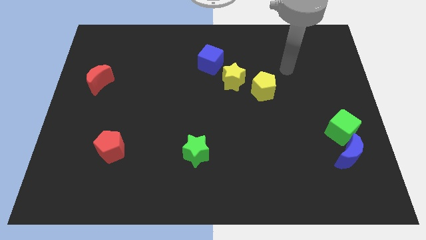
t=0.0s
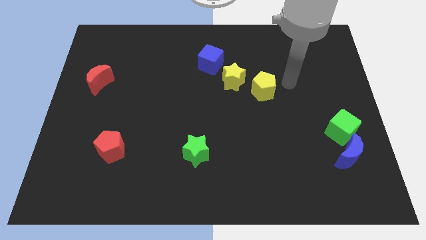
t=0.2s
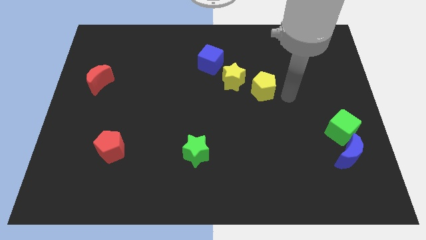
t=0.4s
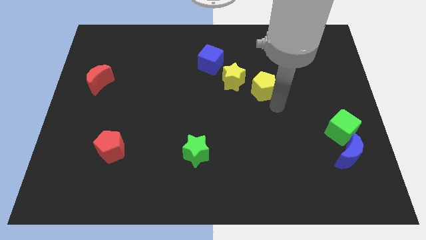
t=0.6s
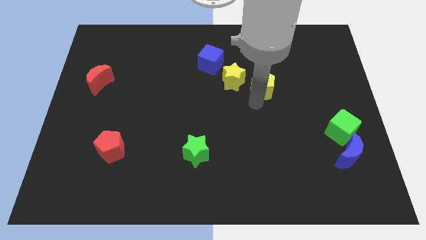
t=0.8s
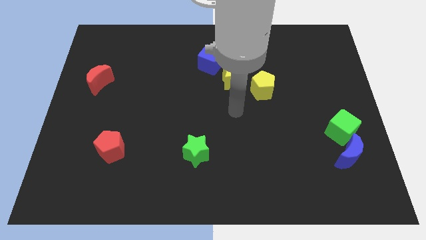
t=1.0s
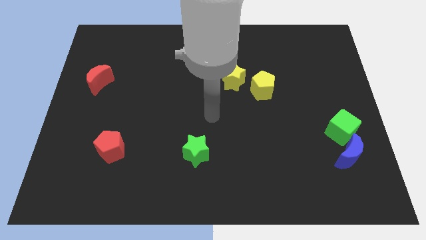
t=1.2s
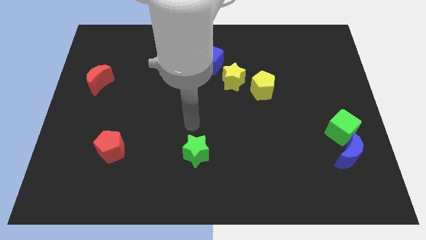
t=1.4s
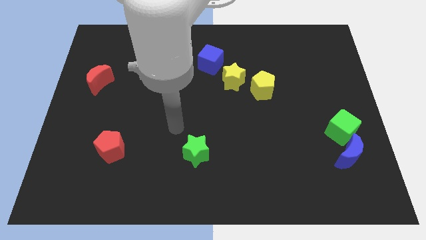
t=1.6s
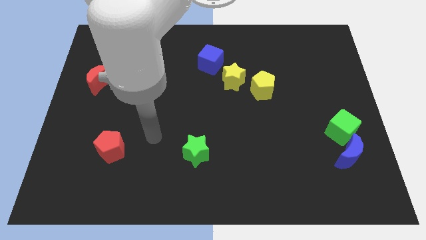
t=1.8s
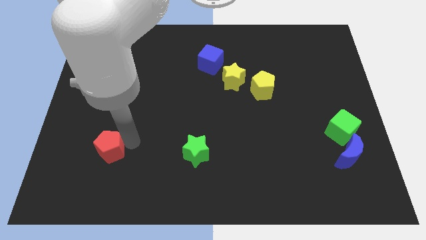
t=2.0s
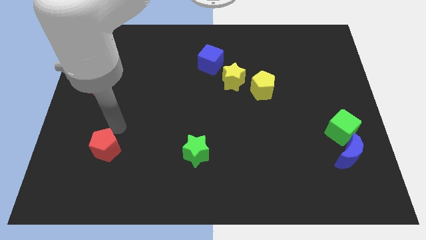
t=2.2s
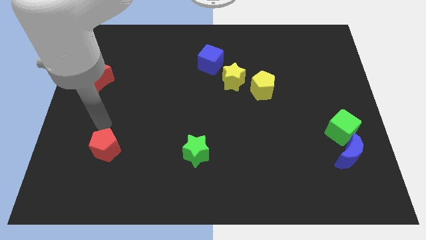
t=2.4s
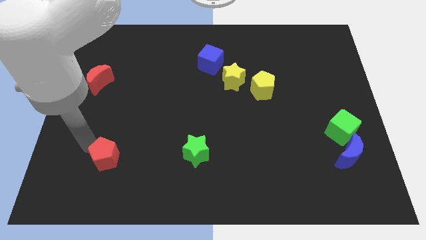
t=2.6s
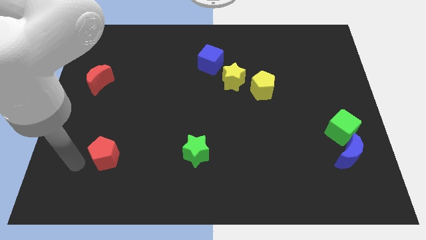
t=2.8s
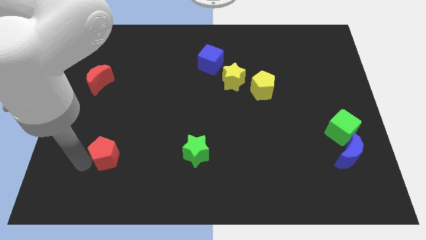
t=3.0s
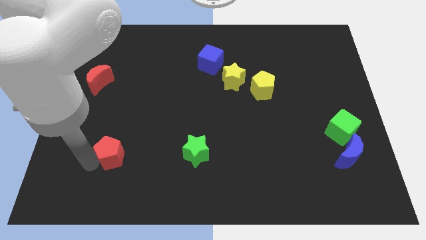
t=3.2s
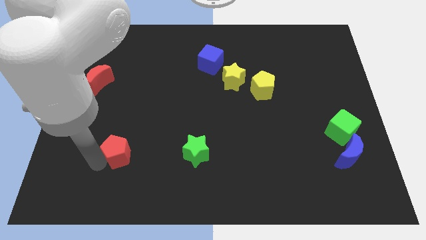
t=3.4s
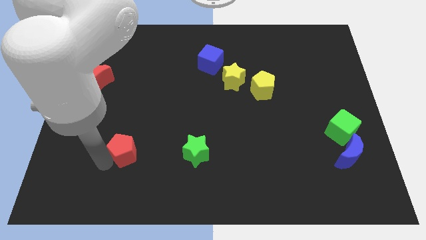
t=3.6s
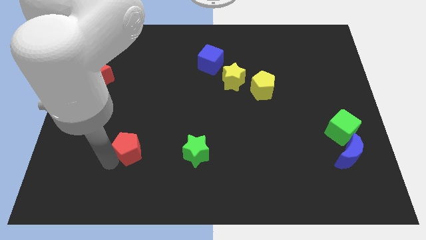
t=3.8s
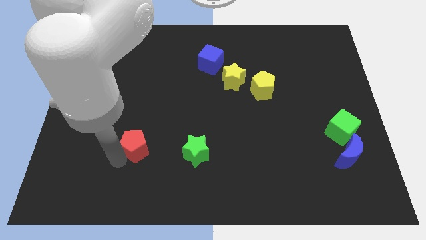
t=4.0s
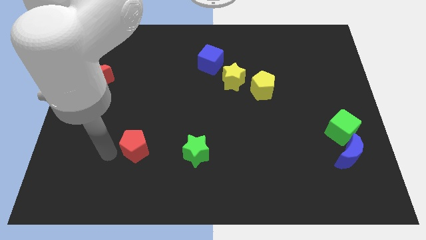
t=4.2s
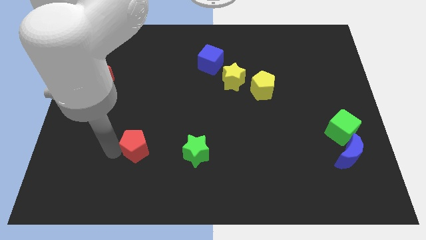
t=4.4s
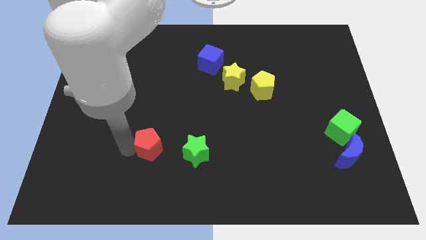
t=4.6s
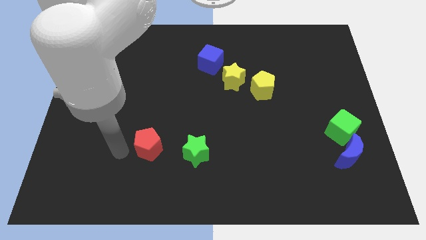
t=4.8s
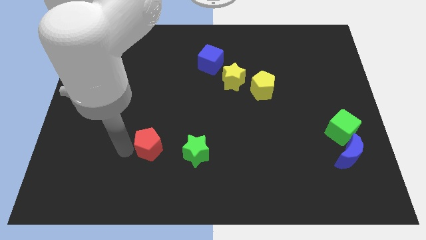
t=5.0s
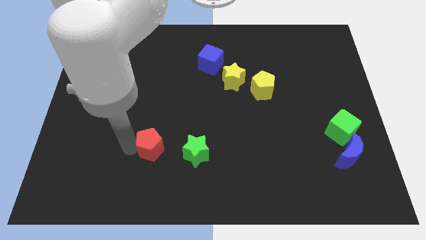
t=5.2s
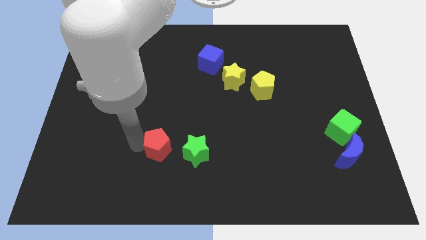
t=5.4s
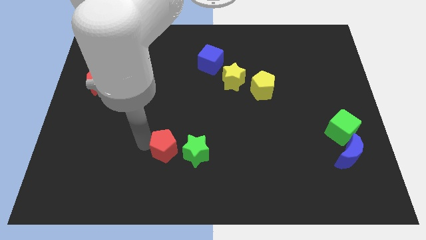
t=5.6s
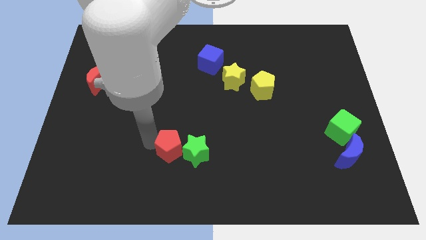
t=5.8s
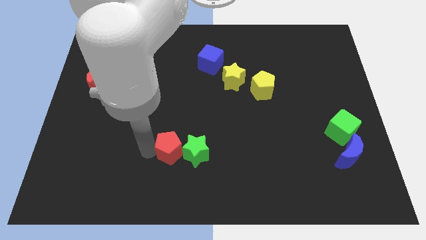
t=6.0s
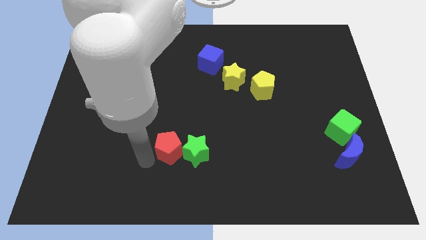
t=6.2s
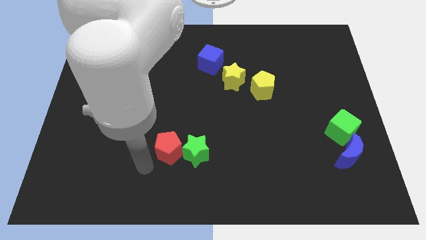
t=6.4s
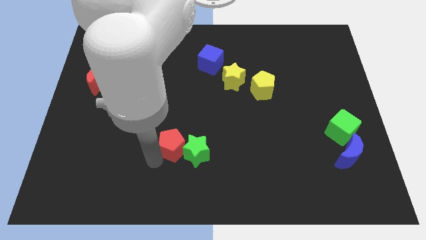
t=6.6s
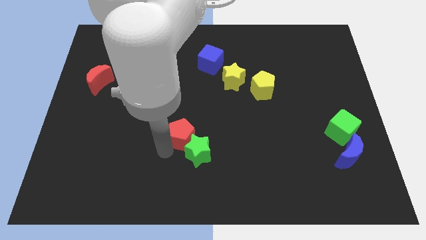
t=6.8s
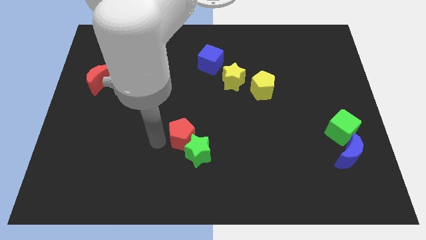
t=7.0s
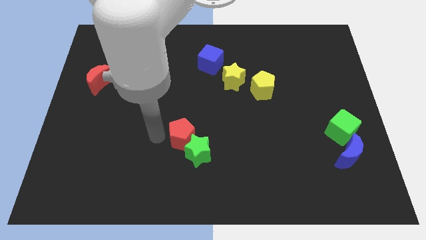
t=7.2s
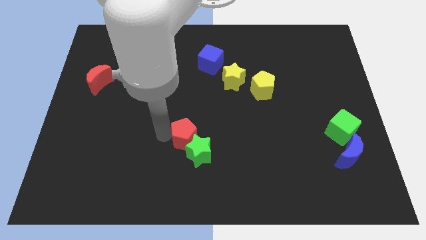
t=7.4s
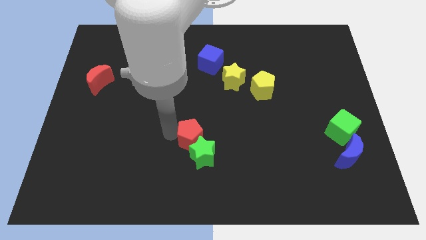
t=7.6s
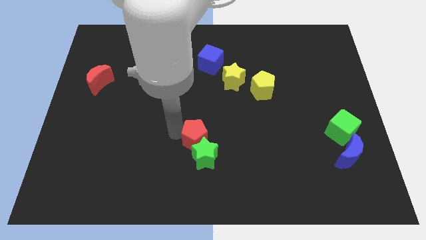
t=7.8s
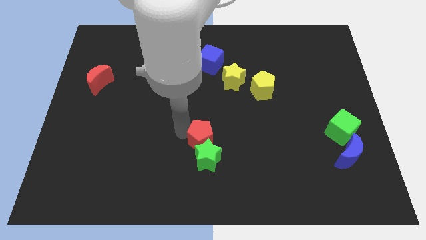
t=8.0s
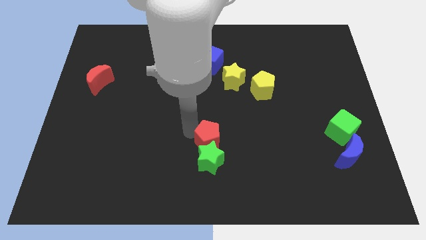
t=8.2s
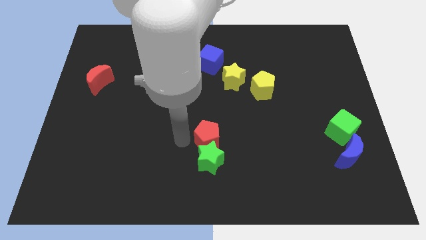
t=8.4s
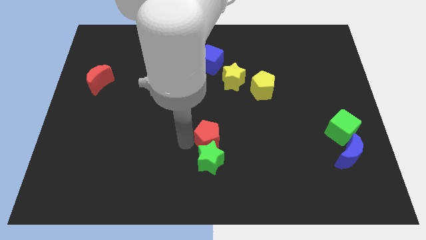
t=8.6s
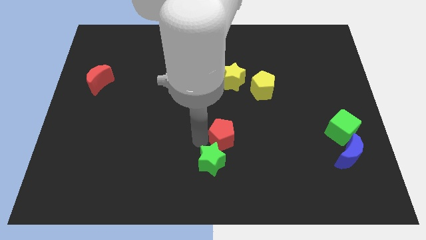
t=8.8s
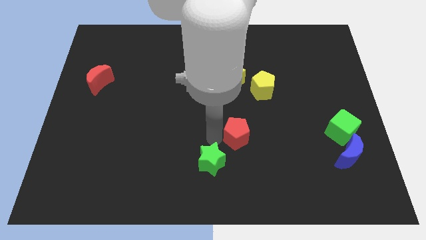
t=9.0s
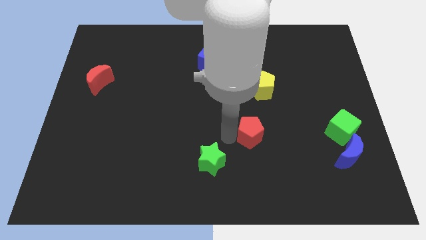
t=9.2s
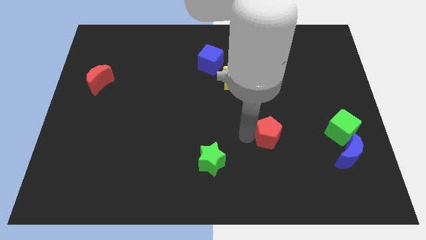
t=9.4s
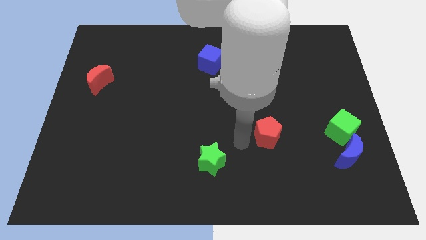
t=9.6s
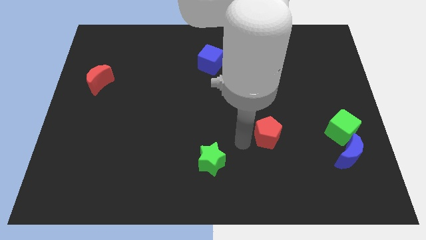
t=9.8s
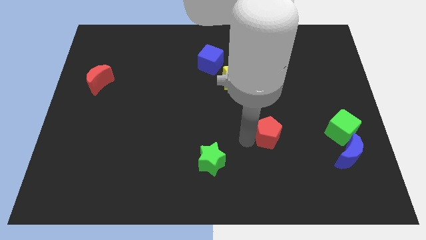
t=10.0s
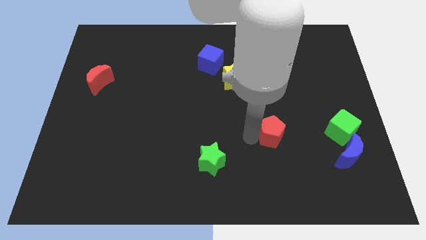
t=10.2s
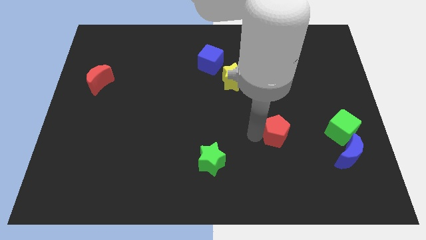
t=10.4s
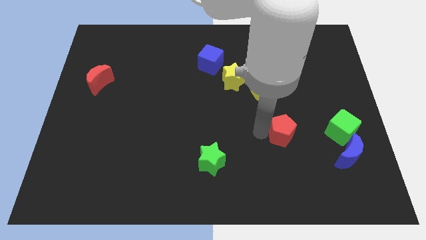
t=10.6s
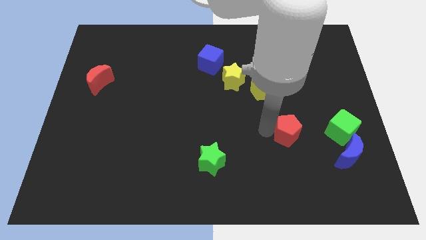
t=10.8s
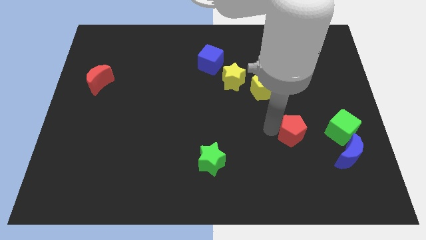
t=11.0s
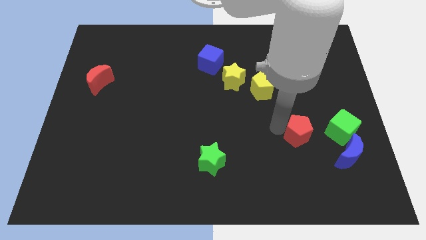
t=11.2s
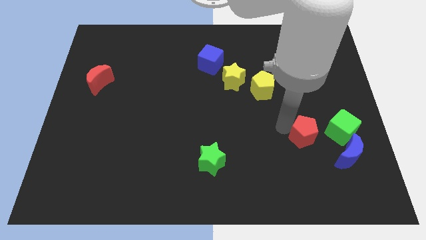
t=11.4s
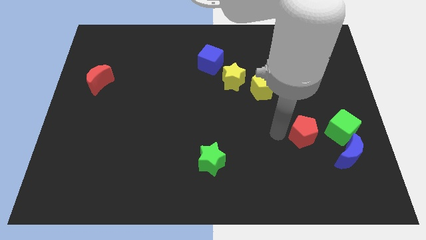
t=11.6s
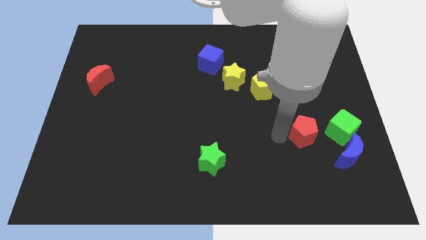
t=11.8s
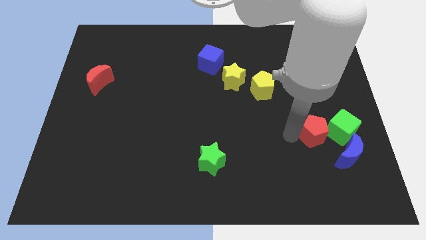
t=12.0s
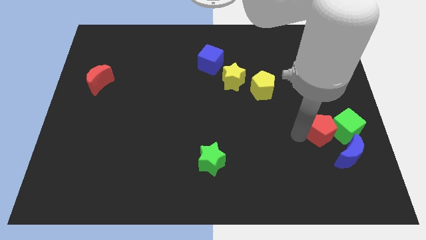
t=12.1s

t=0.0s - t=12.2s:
put the red pentagon towards the green cube
